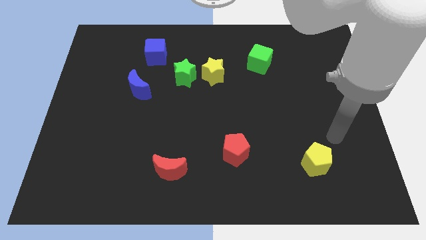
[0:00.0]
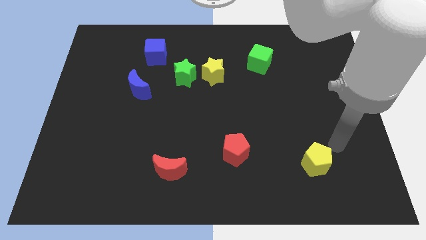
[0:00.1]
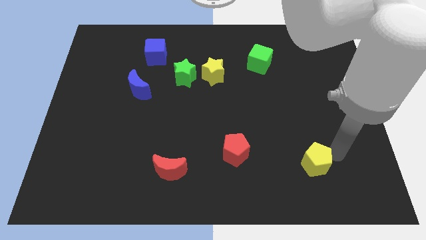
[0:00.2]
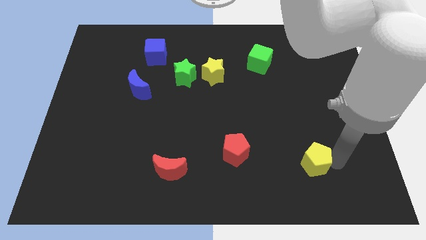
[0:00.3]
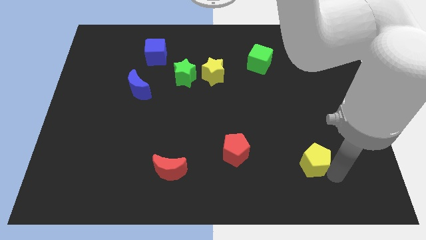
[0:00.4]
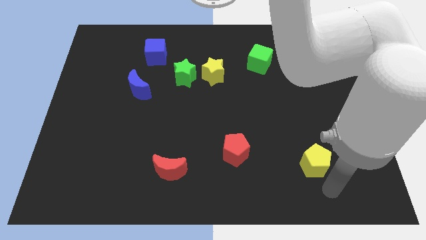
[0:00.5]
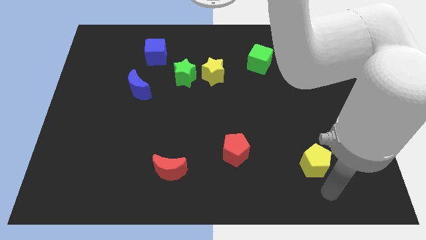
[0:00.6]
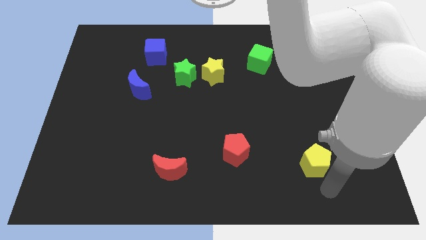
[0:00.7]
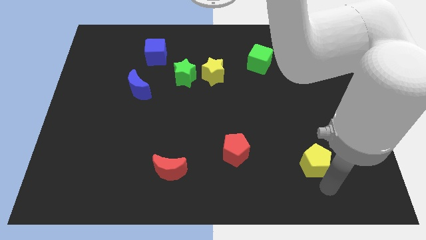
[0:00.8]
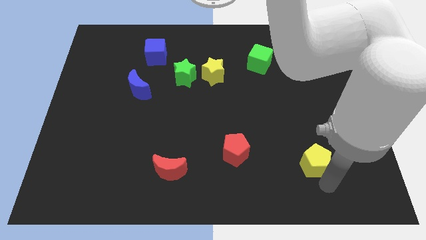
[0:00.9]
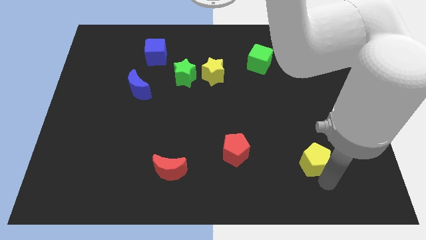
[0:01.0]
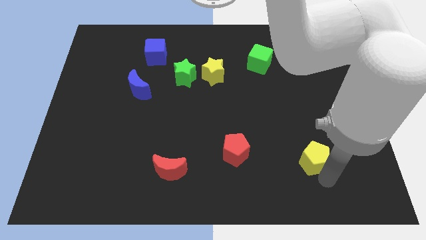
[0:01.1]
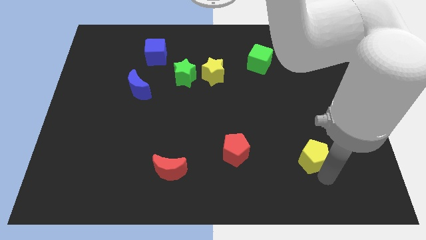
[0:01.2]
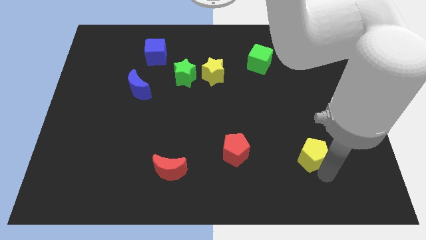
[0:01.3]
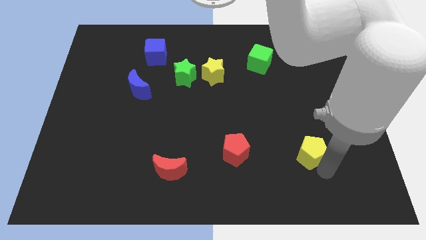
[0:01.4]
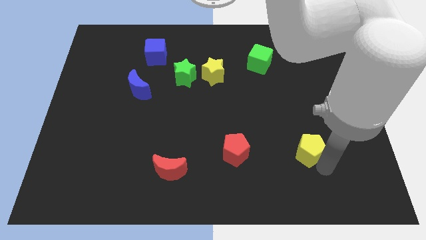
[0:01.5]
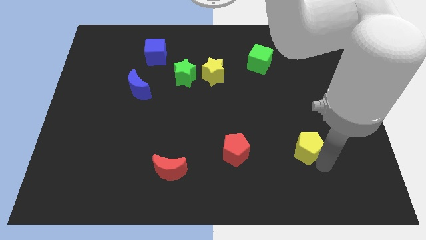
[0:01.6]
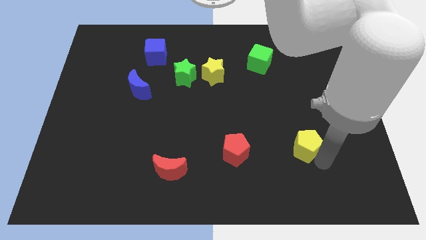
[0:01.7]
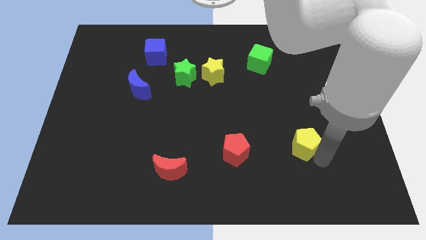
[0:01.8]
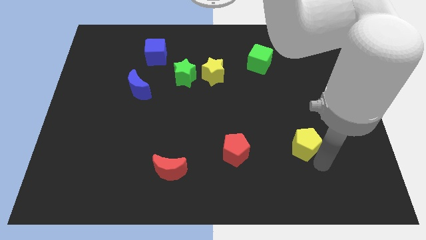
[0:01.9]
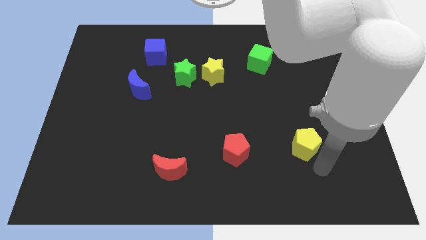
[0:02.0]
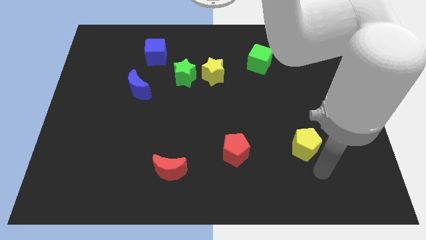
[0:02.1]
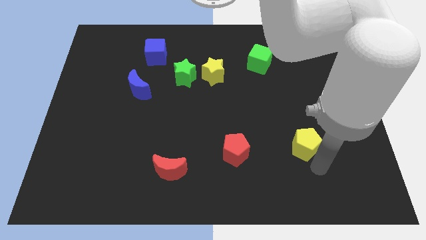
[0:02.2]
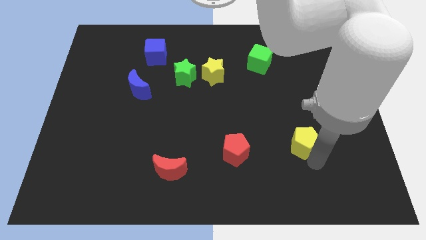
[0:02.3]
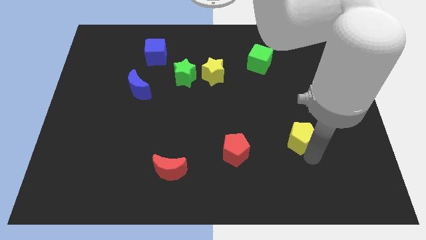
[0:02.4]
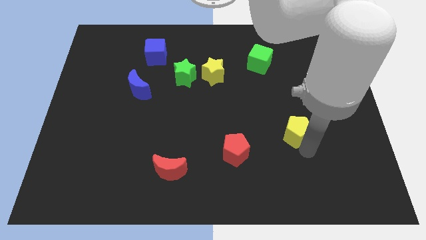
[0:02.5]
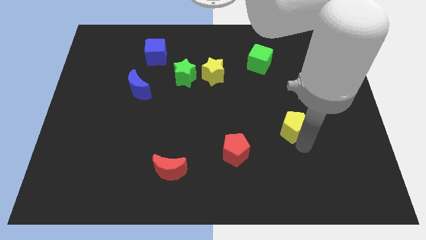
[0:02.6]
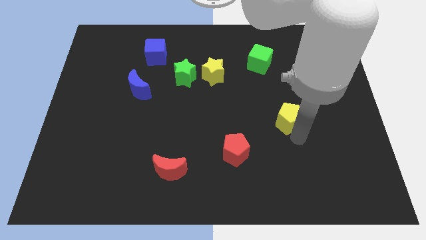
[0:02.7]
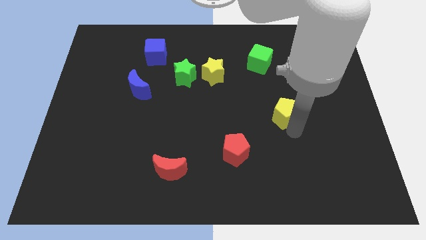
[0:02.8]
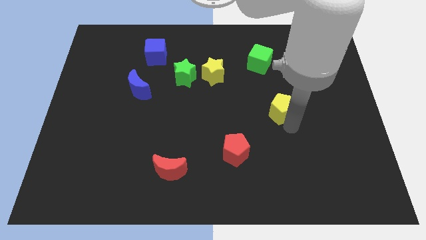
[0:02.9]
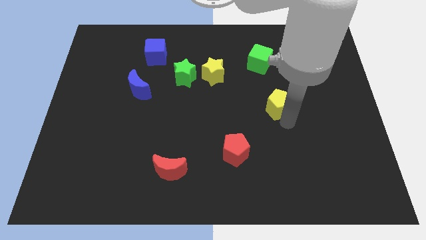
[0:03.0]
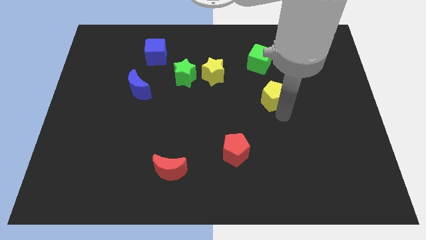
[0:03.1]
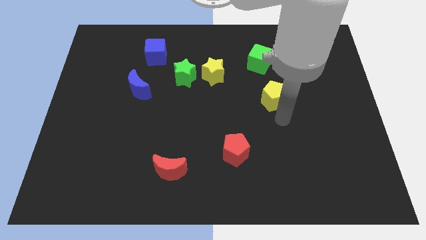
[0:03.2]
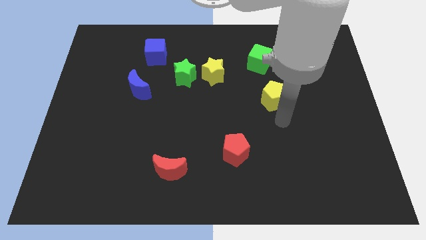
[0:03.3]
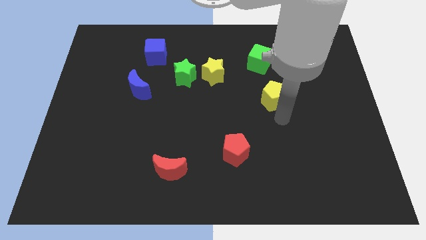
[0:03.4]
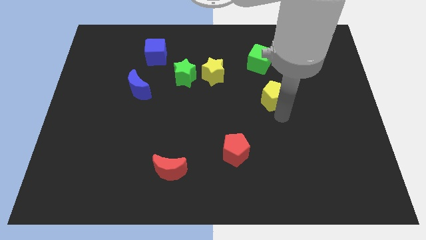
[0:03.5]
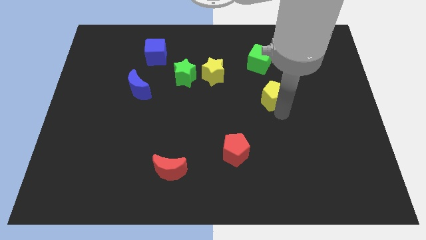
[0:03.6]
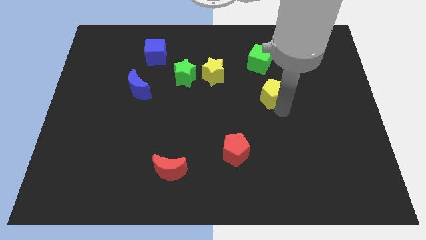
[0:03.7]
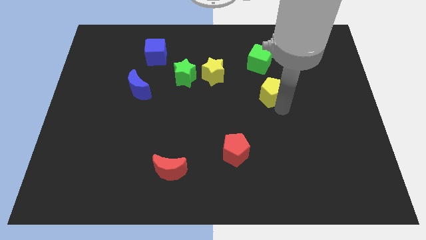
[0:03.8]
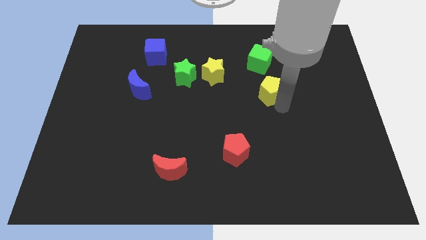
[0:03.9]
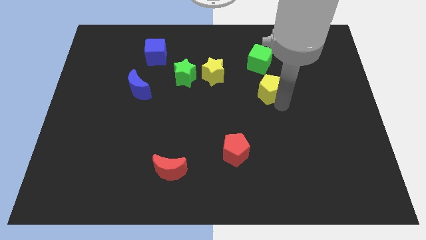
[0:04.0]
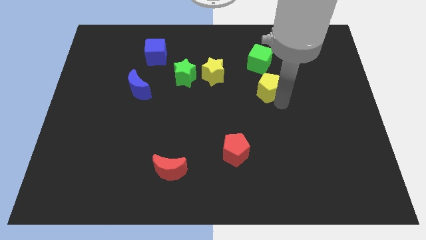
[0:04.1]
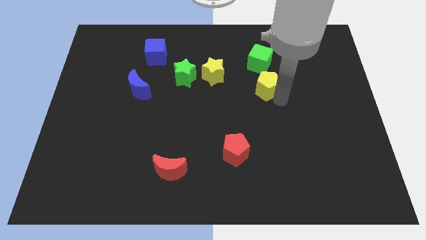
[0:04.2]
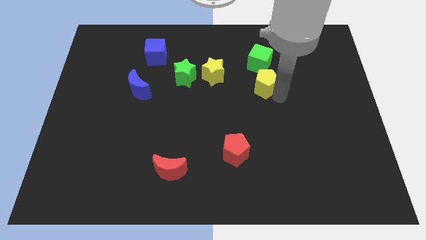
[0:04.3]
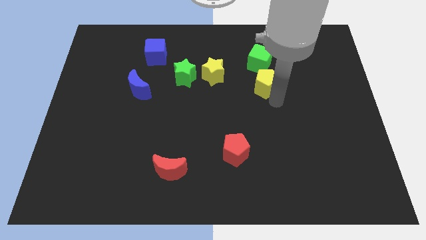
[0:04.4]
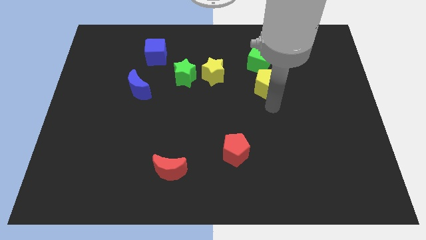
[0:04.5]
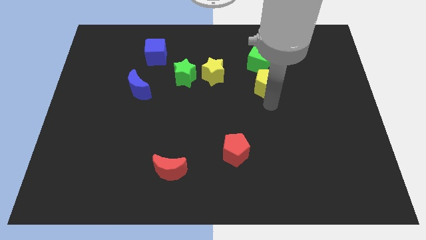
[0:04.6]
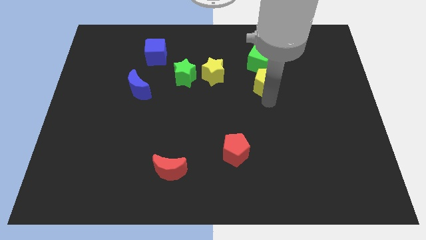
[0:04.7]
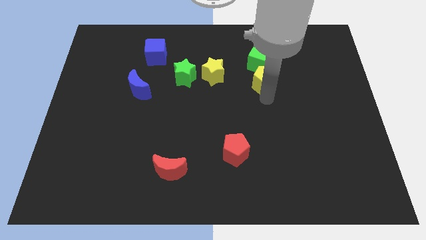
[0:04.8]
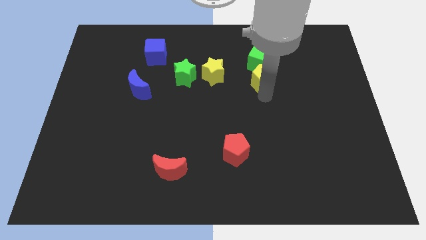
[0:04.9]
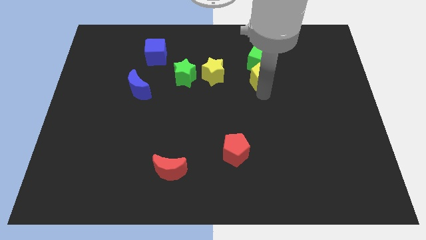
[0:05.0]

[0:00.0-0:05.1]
slide the yellow pentagon towards the green cube

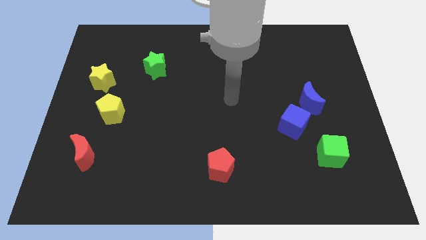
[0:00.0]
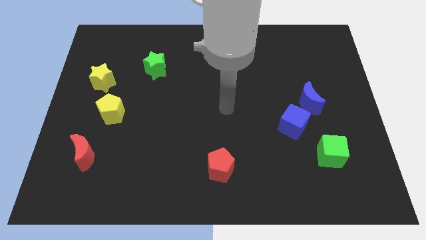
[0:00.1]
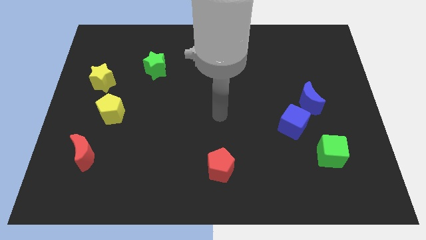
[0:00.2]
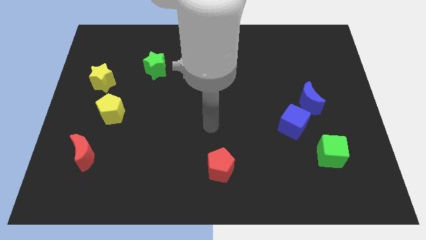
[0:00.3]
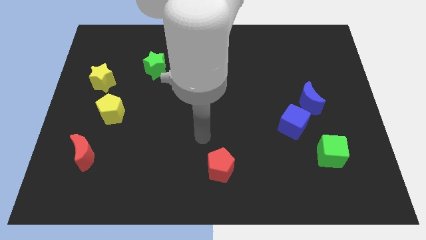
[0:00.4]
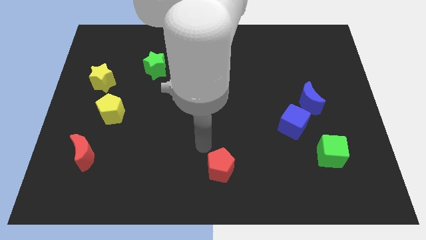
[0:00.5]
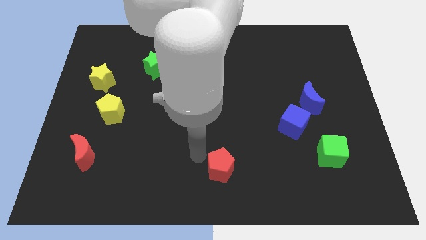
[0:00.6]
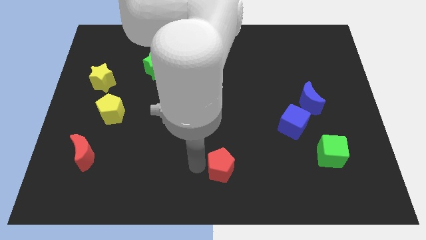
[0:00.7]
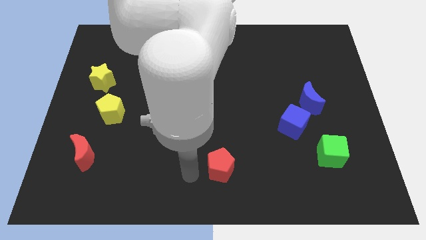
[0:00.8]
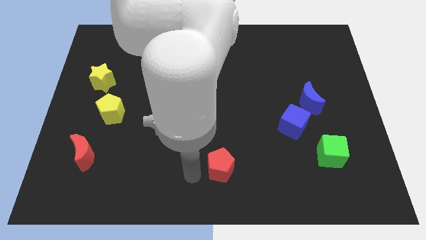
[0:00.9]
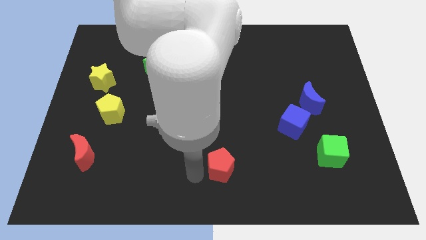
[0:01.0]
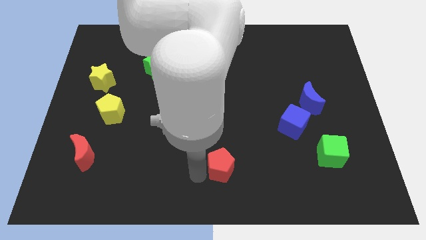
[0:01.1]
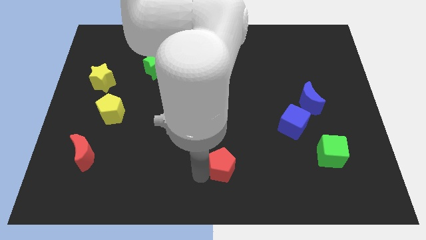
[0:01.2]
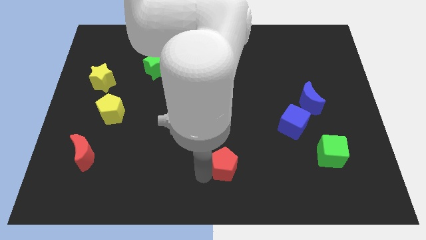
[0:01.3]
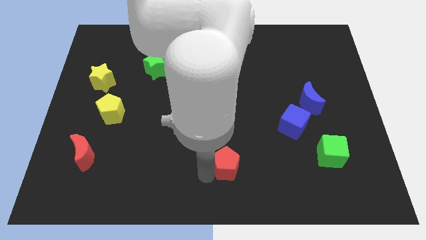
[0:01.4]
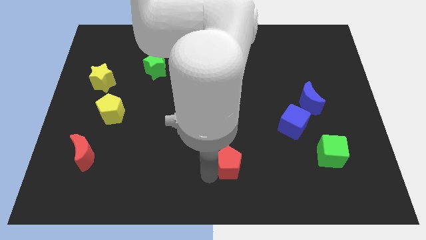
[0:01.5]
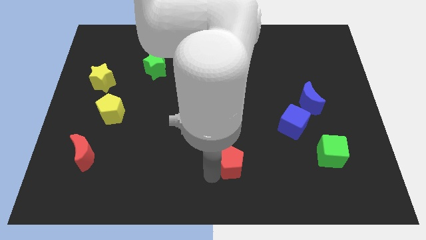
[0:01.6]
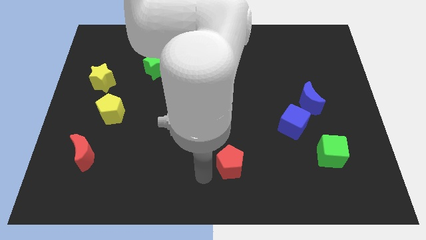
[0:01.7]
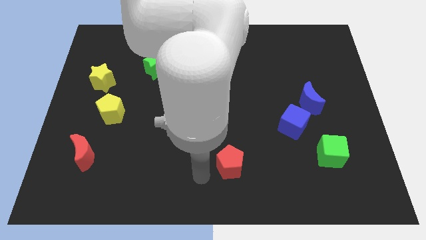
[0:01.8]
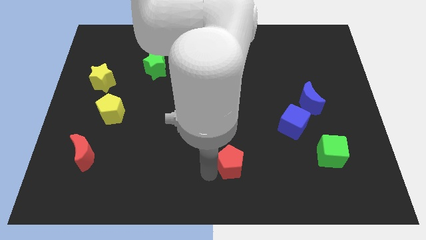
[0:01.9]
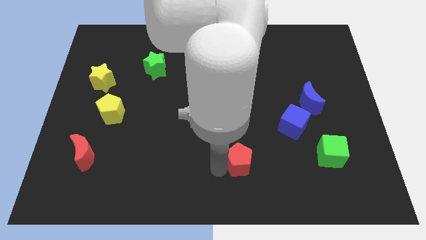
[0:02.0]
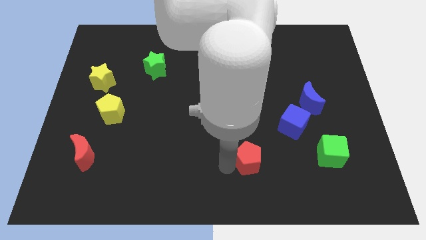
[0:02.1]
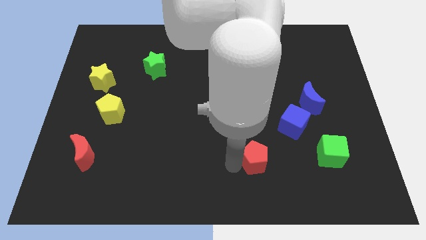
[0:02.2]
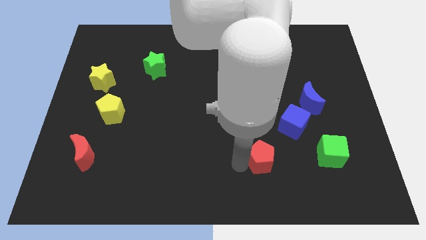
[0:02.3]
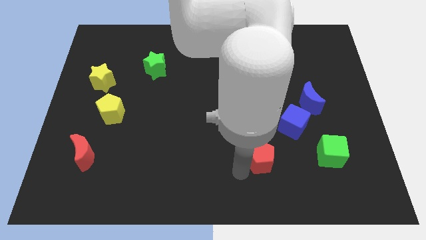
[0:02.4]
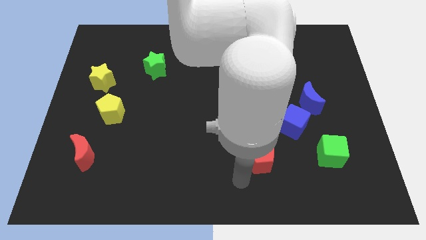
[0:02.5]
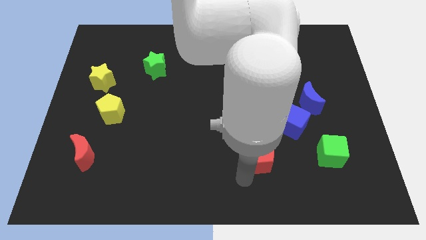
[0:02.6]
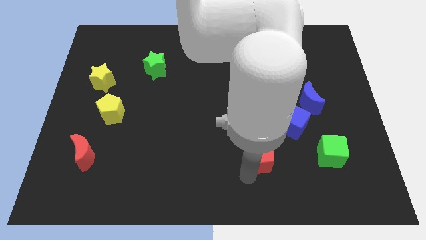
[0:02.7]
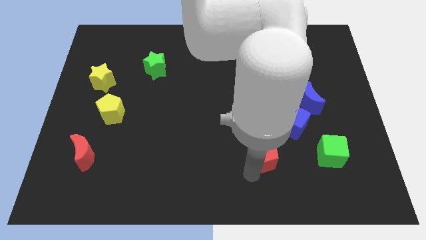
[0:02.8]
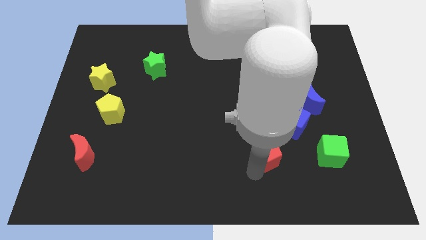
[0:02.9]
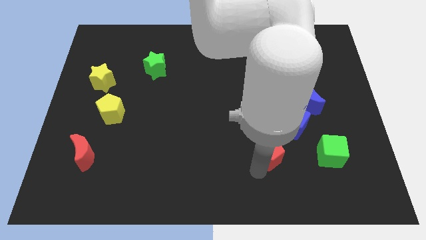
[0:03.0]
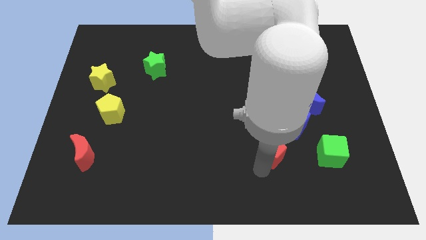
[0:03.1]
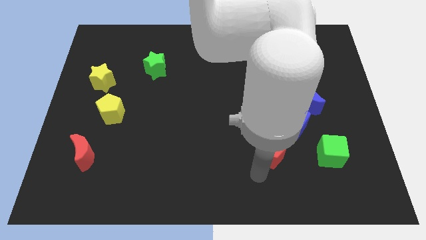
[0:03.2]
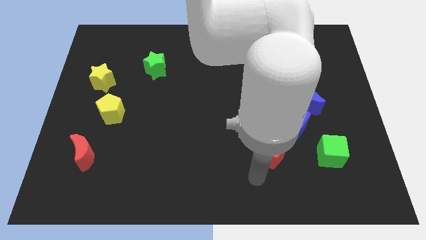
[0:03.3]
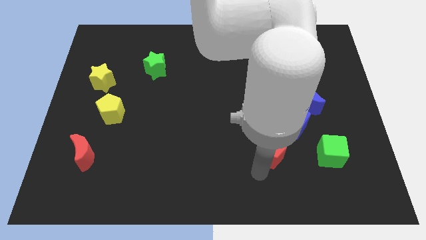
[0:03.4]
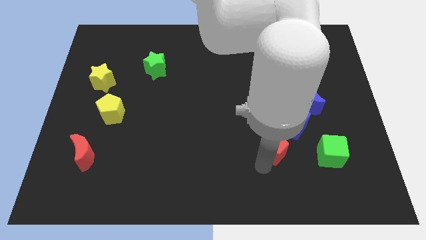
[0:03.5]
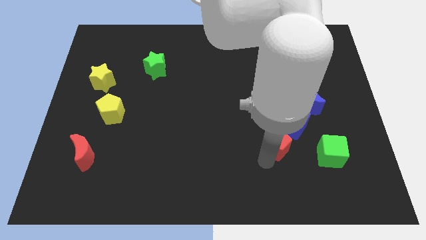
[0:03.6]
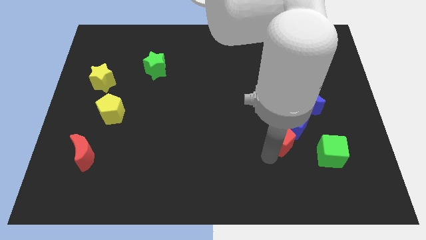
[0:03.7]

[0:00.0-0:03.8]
move the red pentagon towards the blue cube
